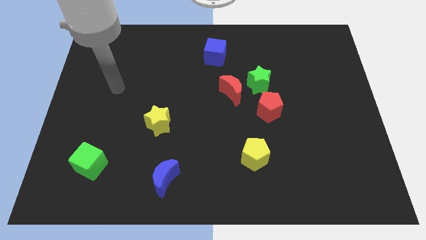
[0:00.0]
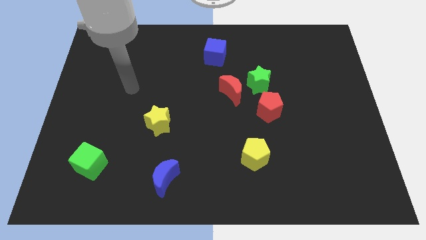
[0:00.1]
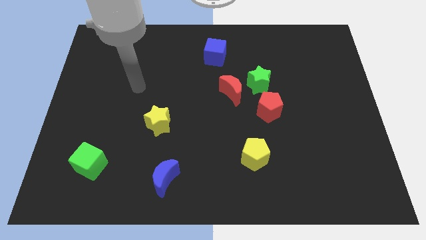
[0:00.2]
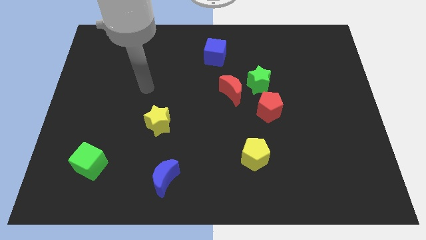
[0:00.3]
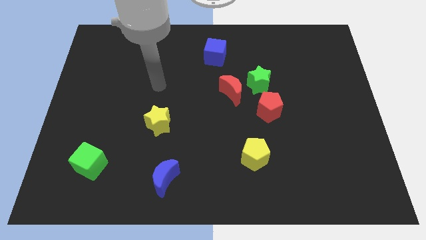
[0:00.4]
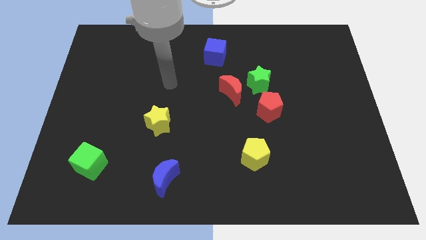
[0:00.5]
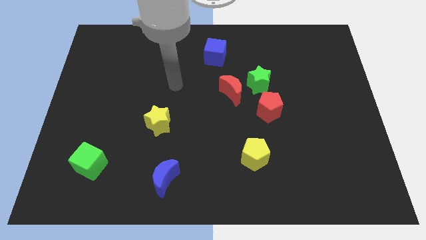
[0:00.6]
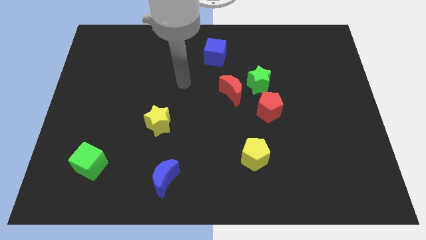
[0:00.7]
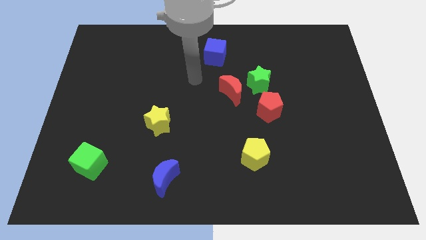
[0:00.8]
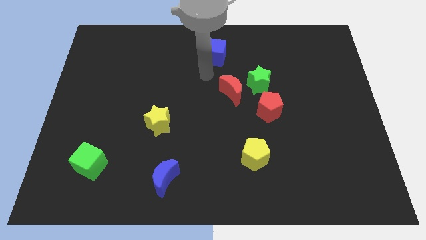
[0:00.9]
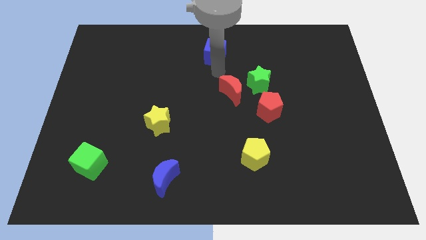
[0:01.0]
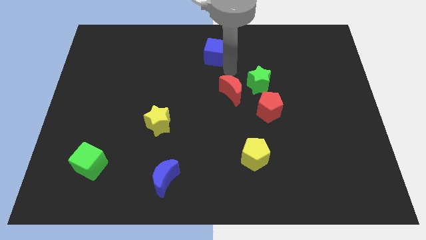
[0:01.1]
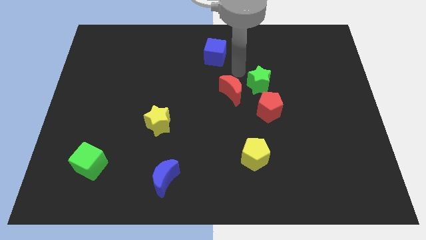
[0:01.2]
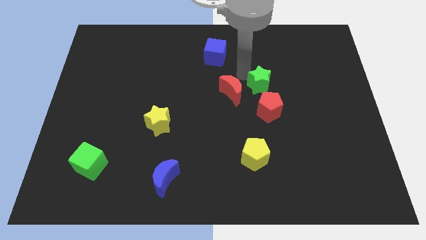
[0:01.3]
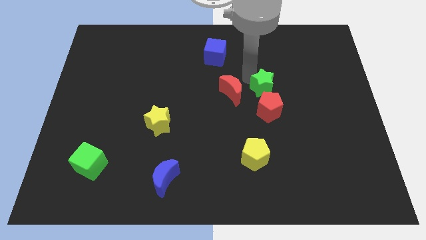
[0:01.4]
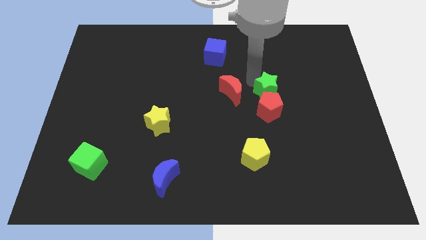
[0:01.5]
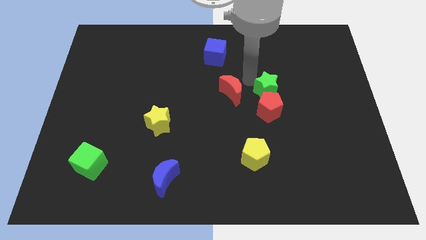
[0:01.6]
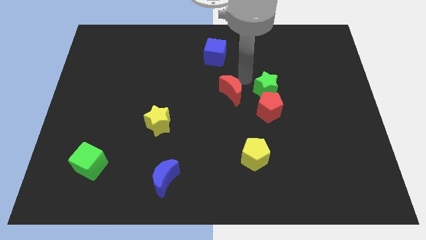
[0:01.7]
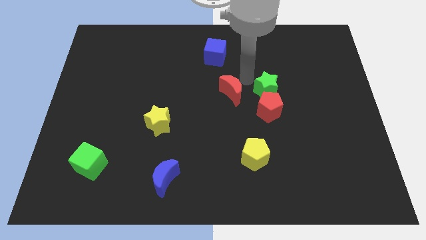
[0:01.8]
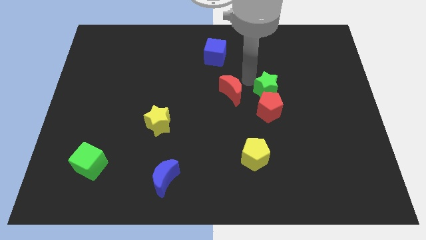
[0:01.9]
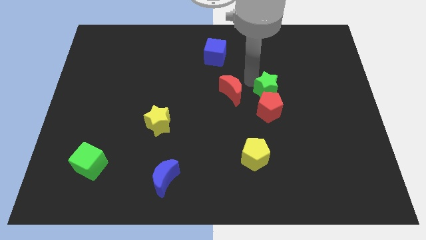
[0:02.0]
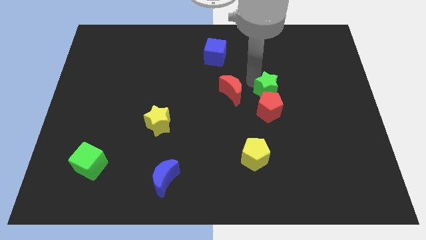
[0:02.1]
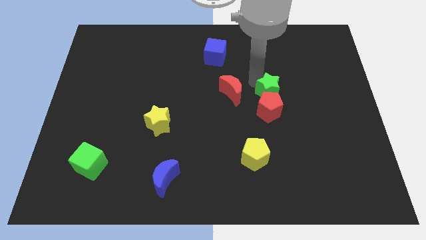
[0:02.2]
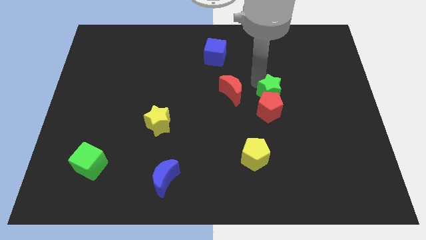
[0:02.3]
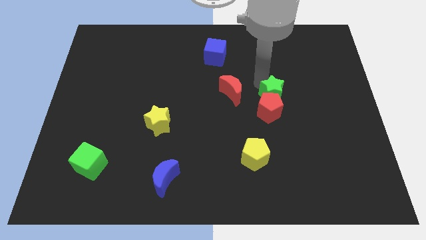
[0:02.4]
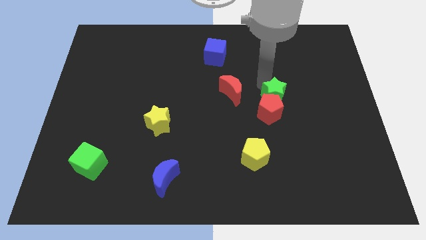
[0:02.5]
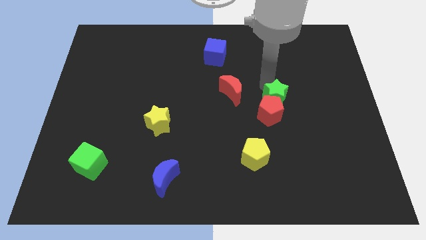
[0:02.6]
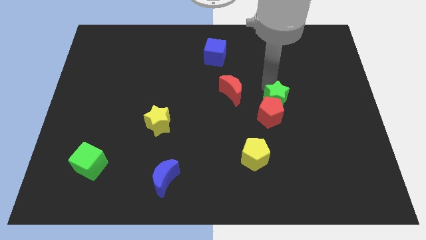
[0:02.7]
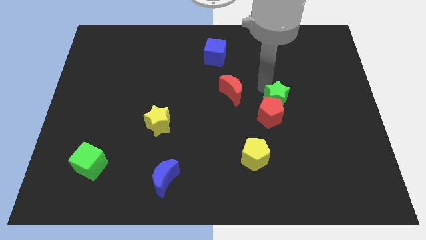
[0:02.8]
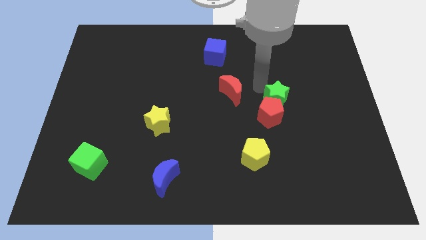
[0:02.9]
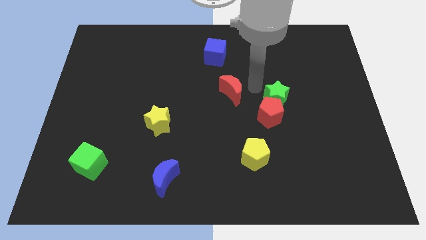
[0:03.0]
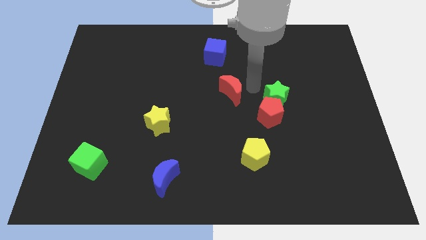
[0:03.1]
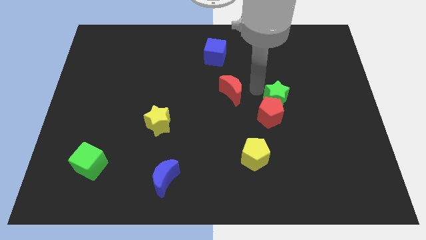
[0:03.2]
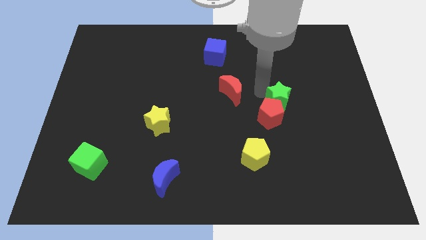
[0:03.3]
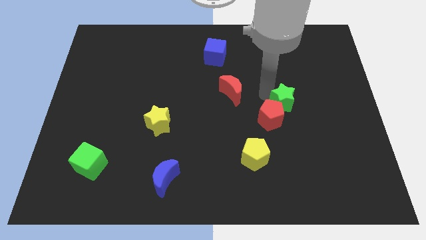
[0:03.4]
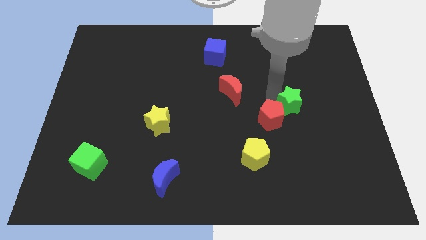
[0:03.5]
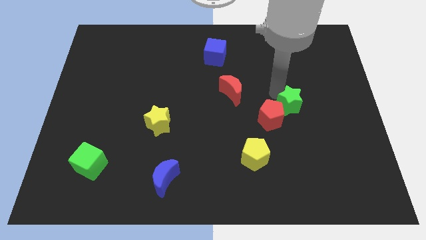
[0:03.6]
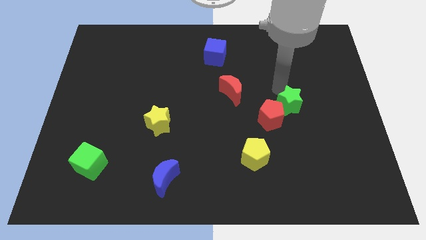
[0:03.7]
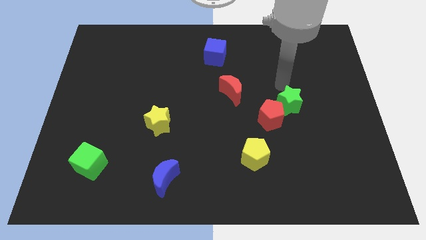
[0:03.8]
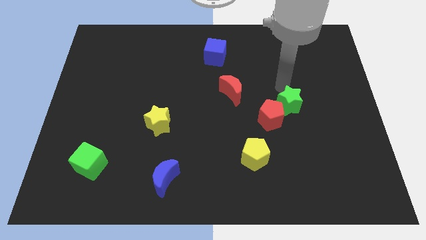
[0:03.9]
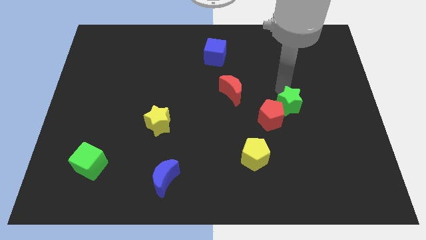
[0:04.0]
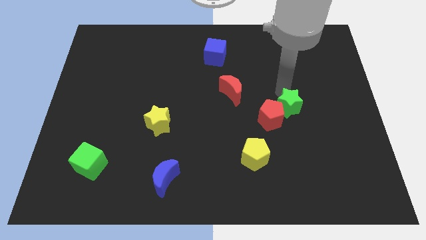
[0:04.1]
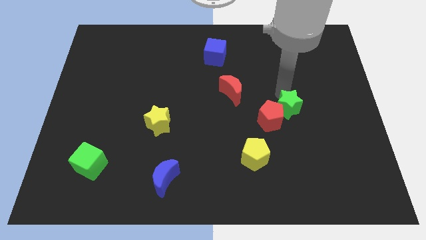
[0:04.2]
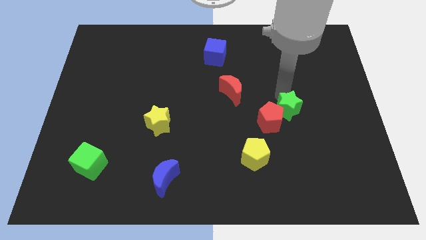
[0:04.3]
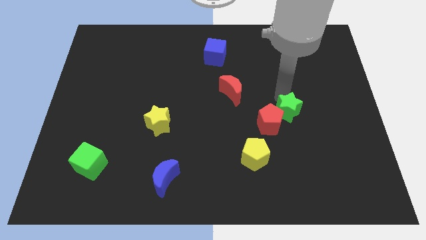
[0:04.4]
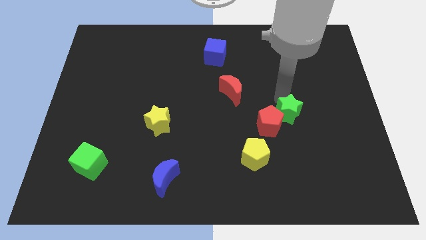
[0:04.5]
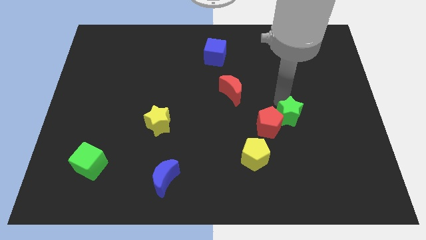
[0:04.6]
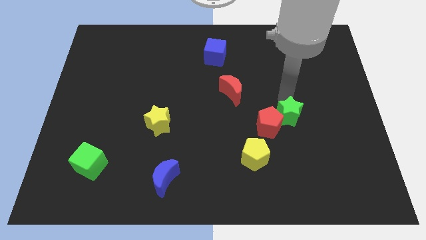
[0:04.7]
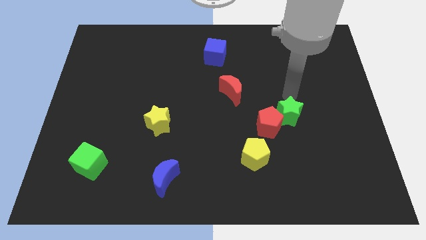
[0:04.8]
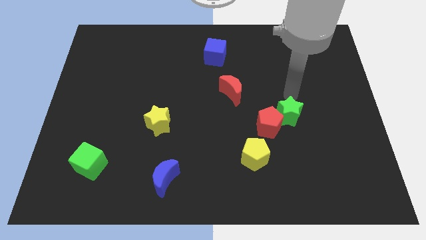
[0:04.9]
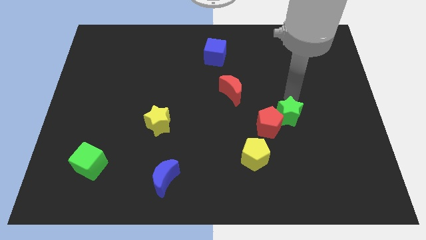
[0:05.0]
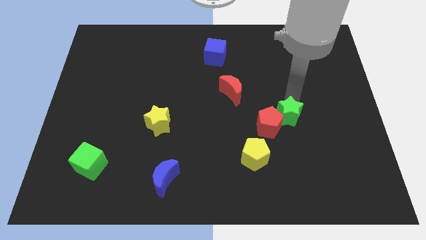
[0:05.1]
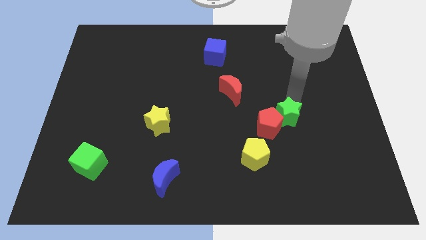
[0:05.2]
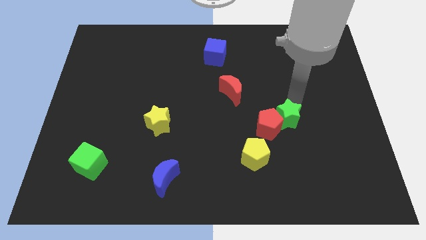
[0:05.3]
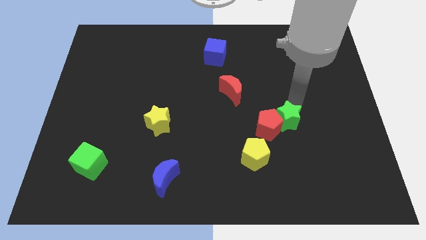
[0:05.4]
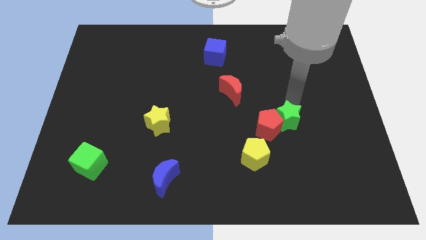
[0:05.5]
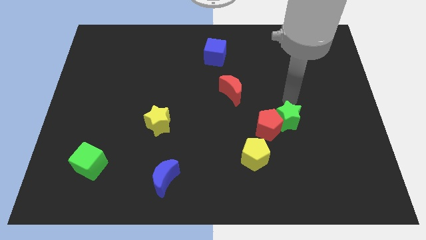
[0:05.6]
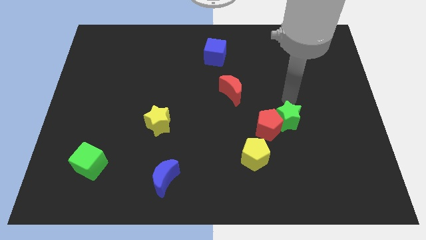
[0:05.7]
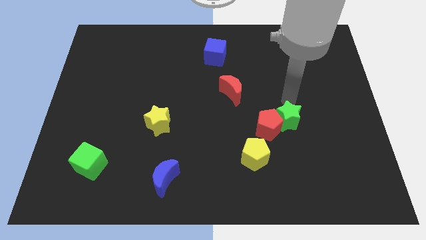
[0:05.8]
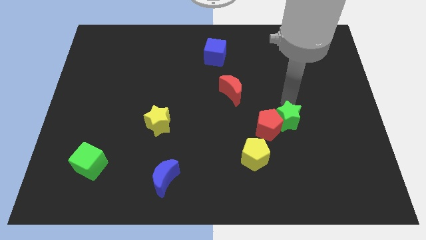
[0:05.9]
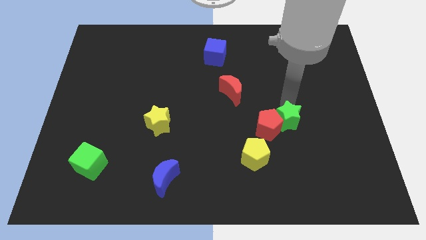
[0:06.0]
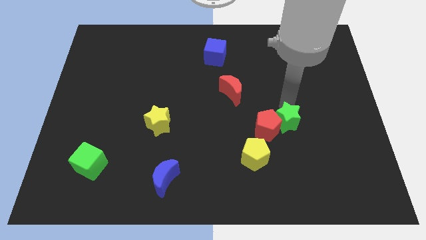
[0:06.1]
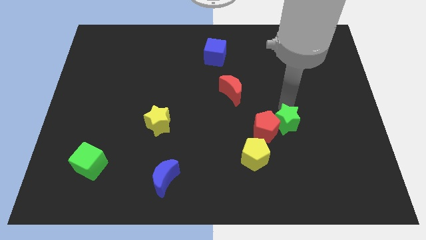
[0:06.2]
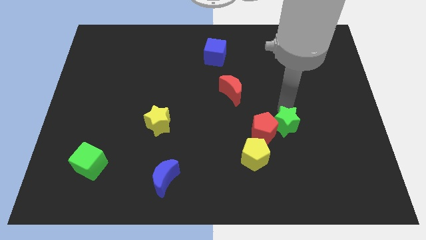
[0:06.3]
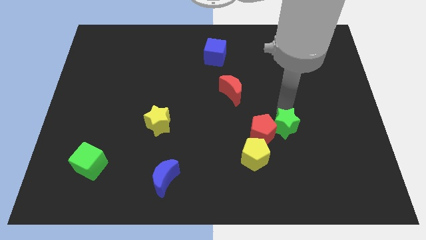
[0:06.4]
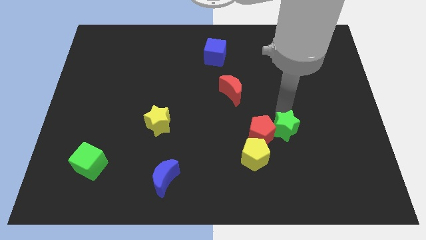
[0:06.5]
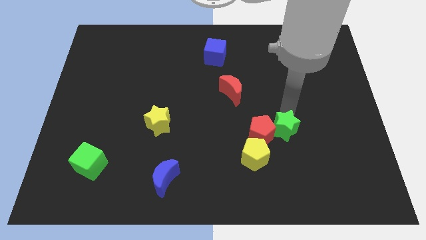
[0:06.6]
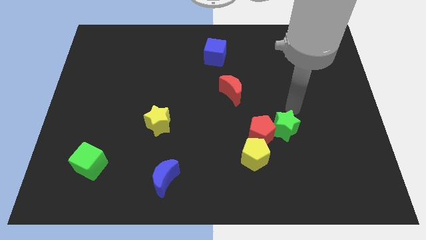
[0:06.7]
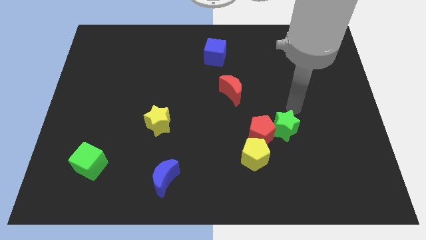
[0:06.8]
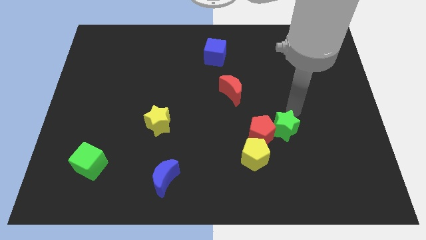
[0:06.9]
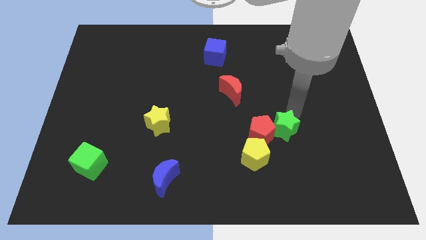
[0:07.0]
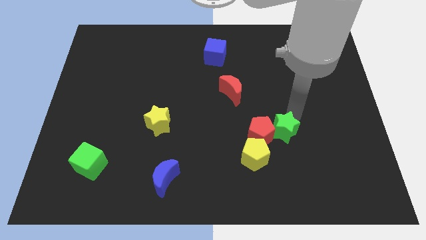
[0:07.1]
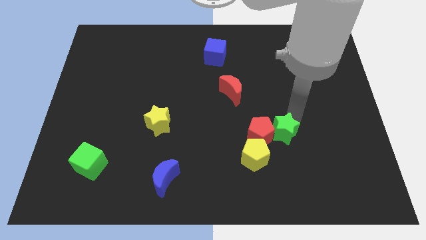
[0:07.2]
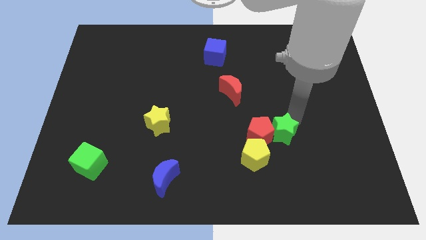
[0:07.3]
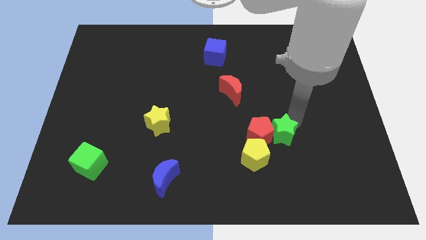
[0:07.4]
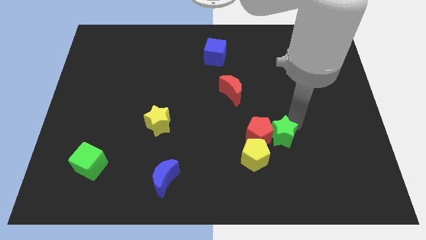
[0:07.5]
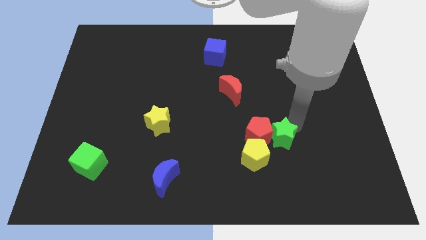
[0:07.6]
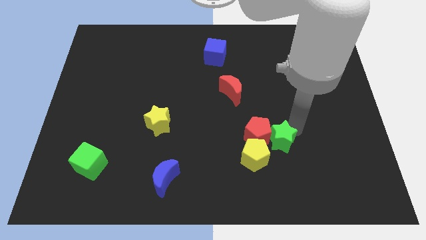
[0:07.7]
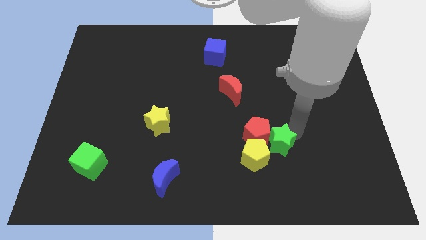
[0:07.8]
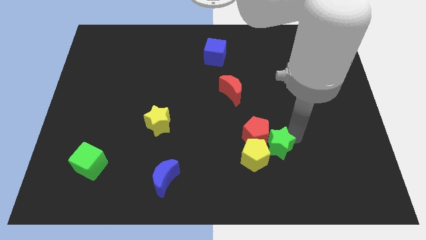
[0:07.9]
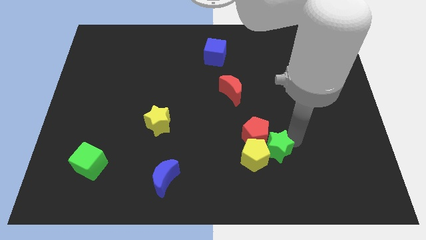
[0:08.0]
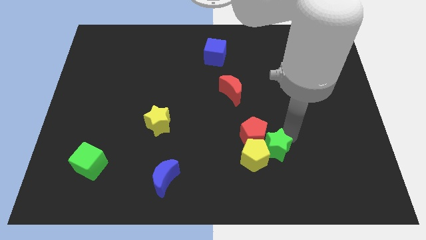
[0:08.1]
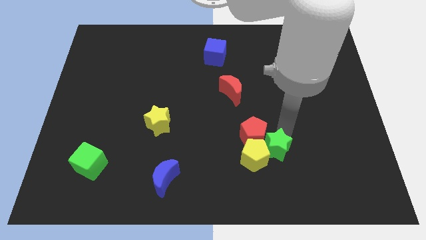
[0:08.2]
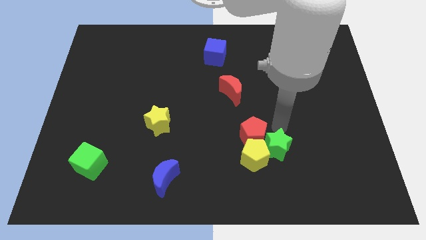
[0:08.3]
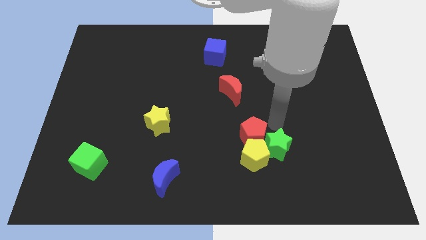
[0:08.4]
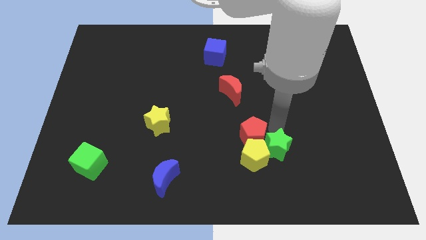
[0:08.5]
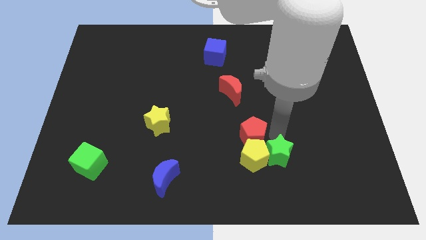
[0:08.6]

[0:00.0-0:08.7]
put the green star to the bottom right of the yellow pentagon
